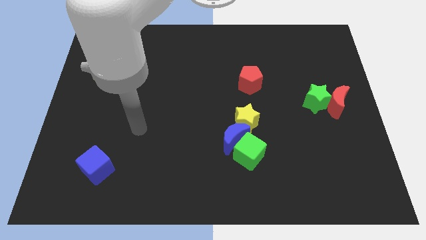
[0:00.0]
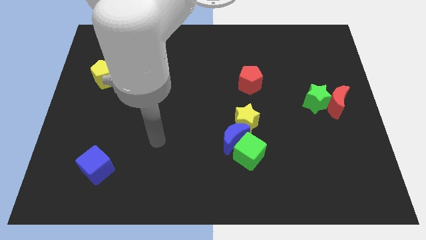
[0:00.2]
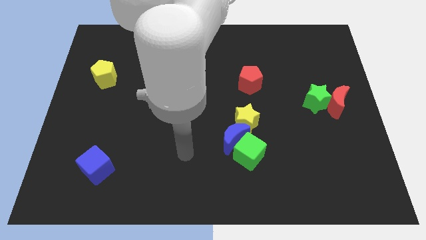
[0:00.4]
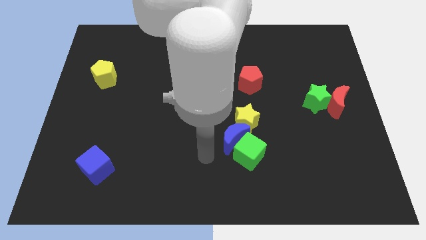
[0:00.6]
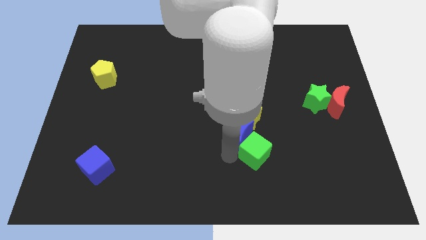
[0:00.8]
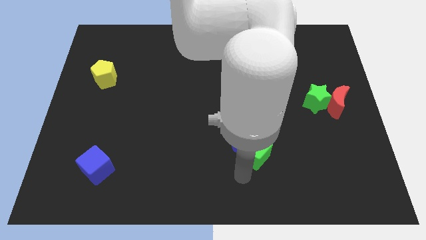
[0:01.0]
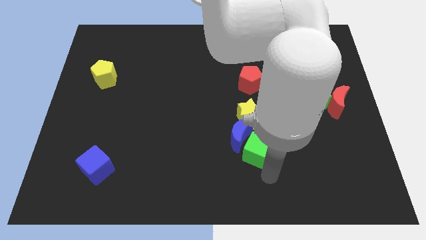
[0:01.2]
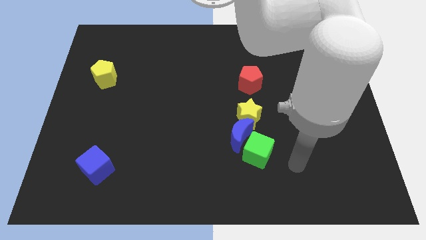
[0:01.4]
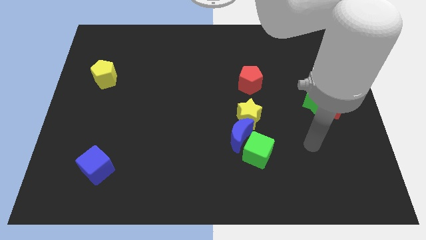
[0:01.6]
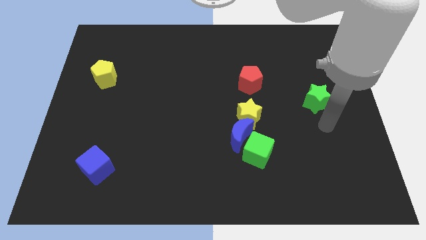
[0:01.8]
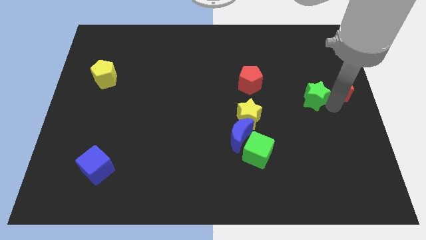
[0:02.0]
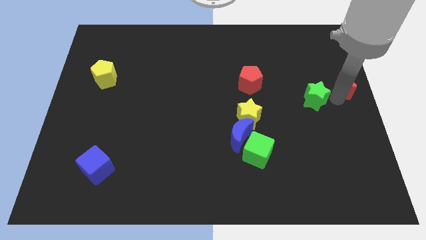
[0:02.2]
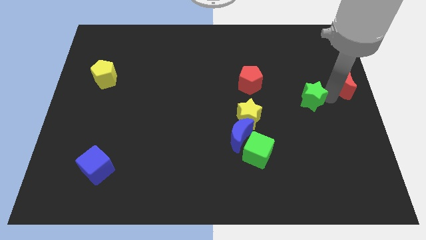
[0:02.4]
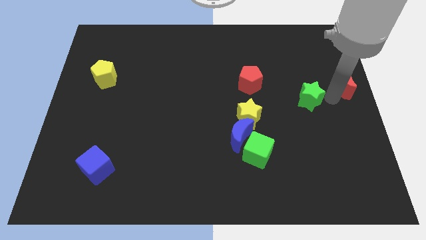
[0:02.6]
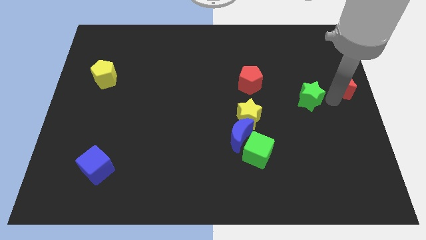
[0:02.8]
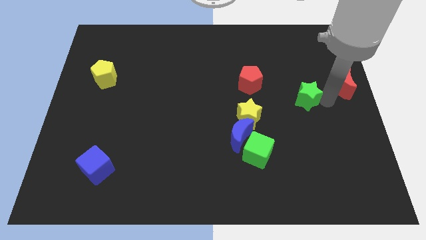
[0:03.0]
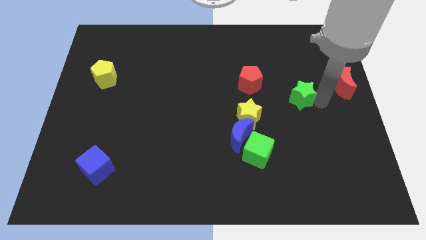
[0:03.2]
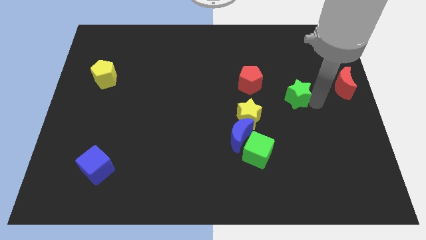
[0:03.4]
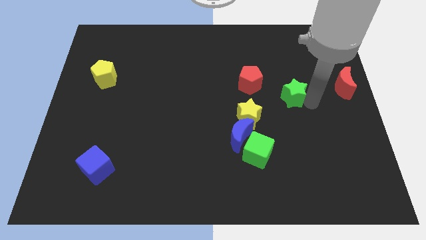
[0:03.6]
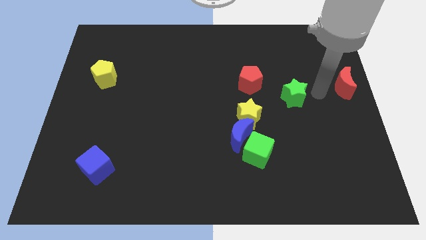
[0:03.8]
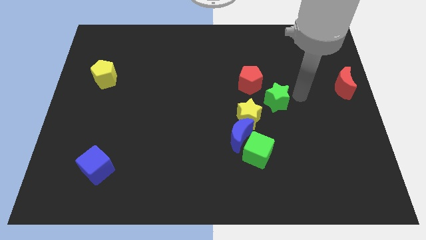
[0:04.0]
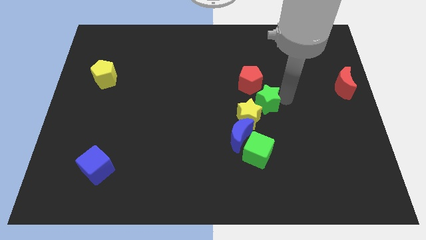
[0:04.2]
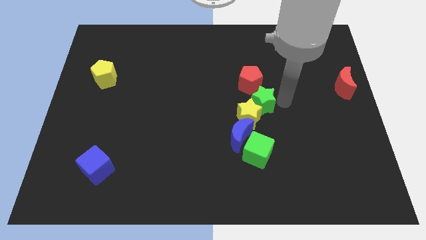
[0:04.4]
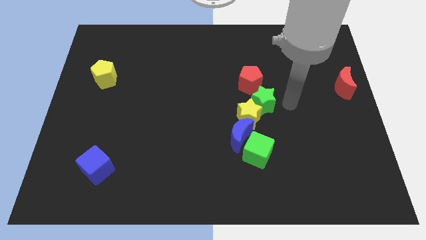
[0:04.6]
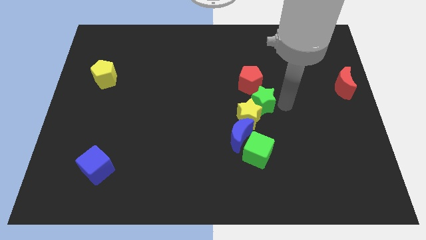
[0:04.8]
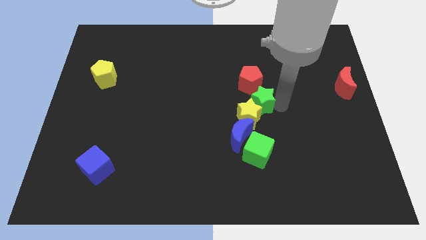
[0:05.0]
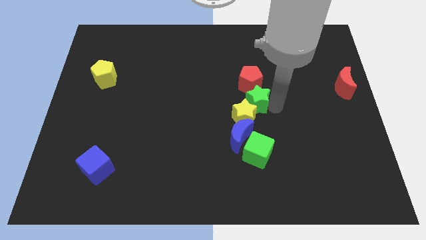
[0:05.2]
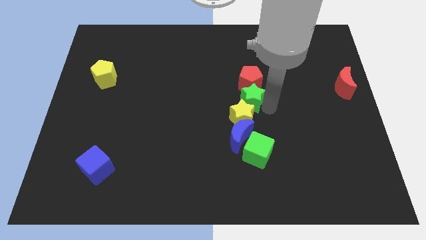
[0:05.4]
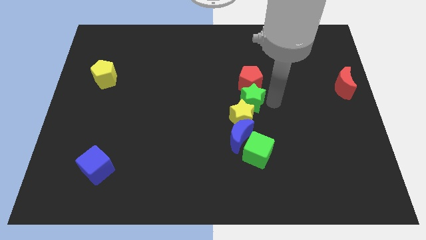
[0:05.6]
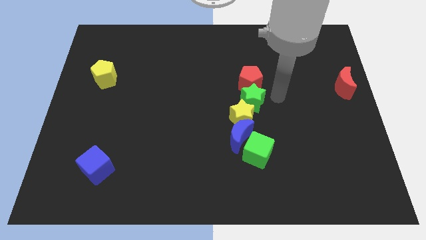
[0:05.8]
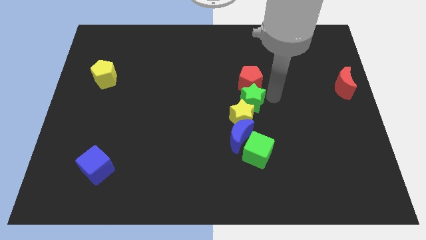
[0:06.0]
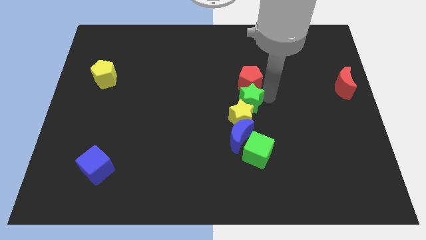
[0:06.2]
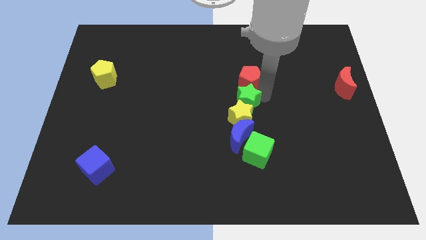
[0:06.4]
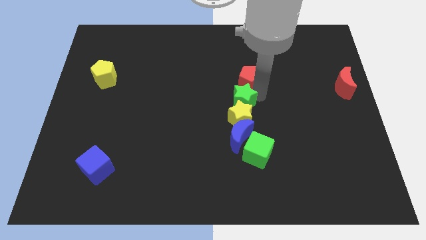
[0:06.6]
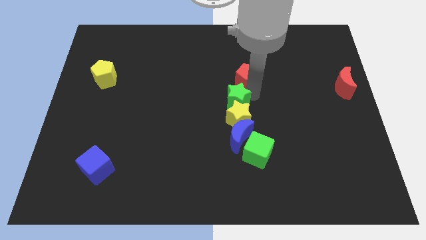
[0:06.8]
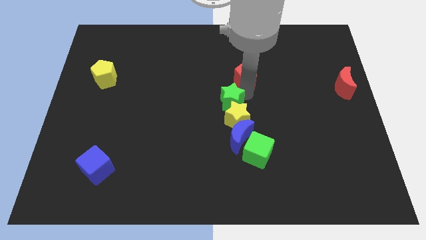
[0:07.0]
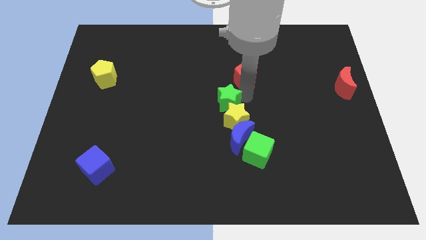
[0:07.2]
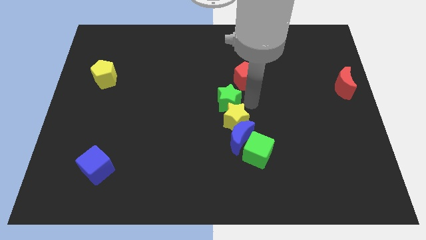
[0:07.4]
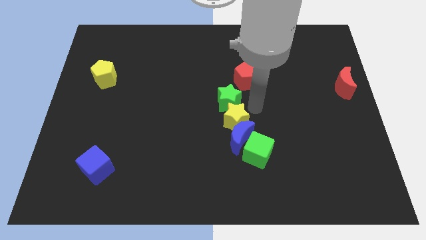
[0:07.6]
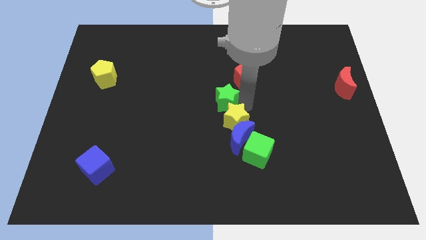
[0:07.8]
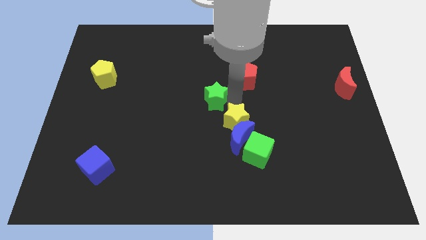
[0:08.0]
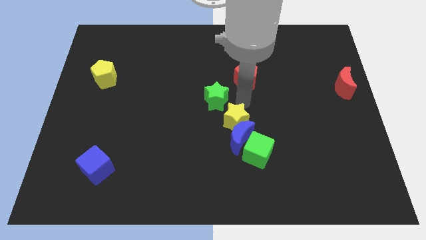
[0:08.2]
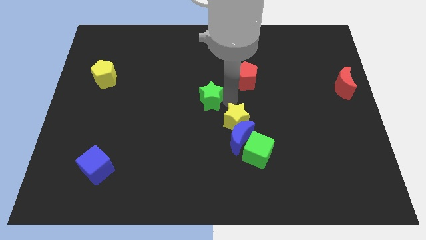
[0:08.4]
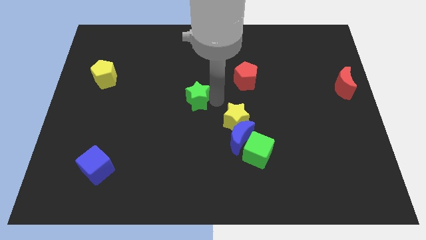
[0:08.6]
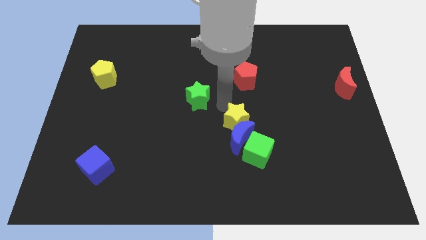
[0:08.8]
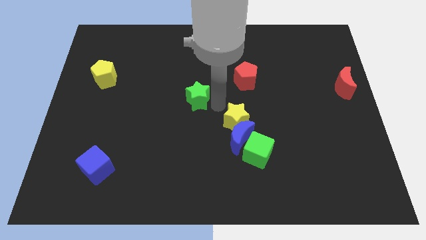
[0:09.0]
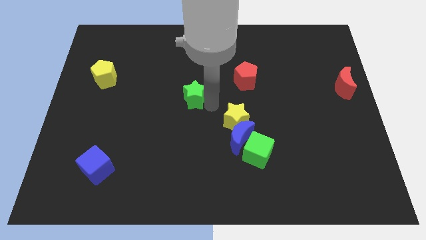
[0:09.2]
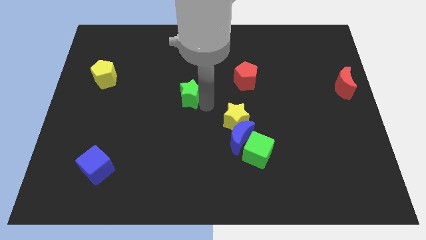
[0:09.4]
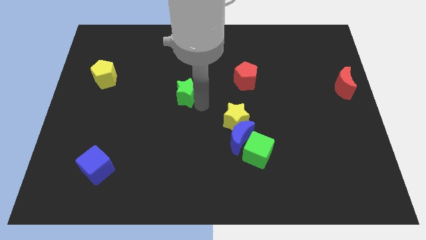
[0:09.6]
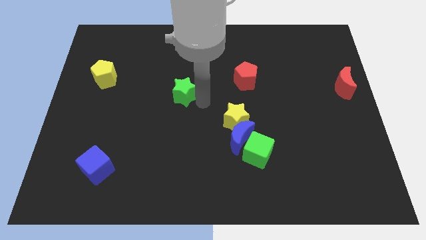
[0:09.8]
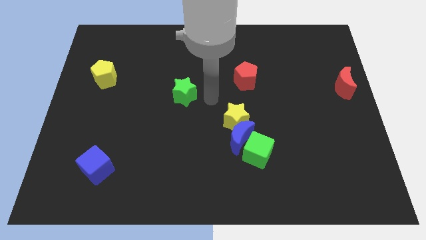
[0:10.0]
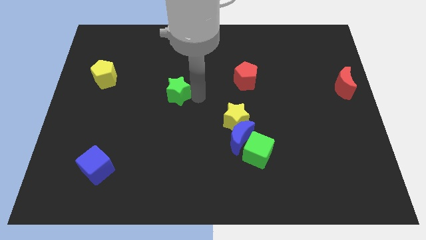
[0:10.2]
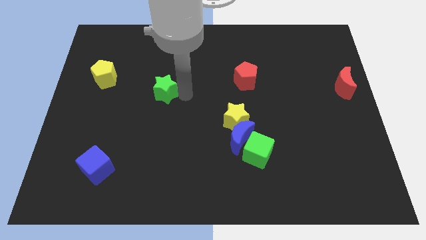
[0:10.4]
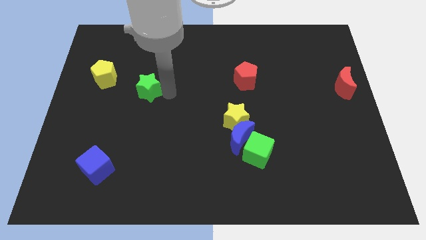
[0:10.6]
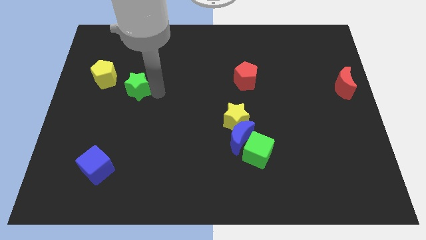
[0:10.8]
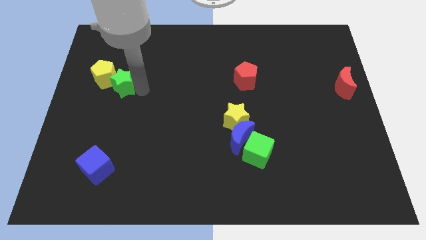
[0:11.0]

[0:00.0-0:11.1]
slide the green star close to the yellow pentagon

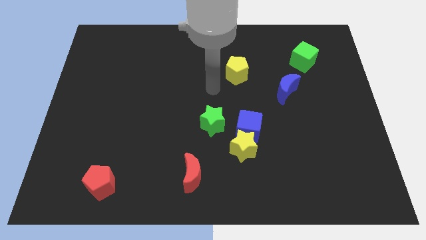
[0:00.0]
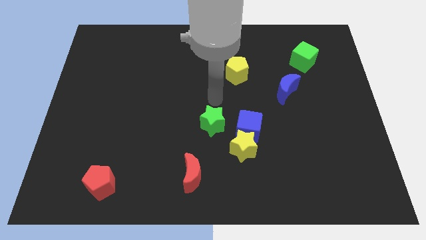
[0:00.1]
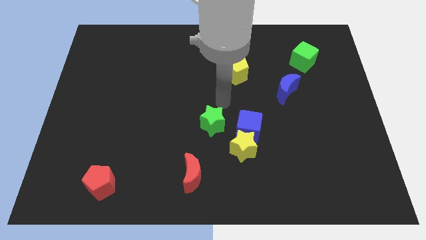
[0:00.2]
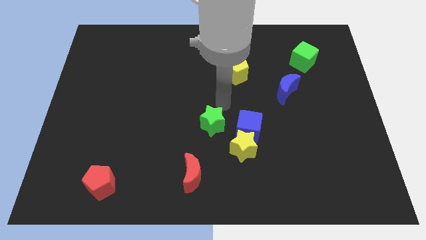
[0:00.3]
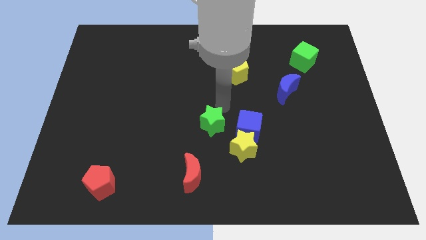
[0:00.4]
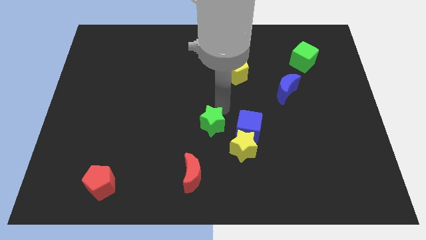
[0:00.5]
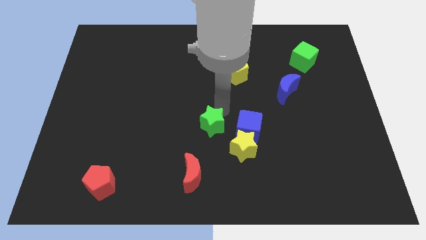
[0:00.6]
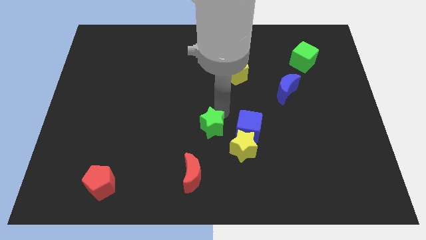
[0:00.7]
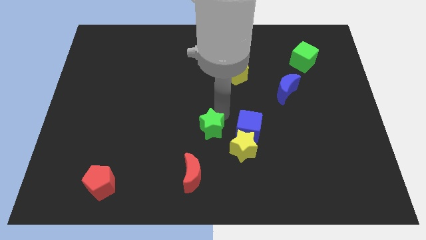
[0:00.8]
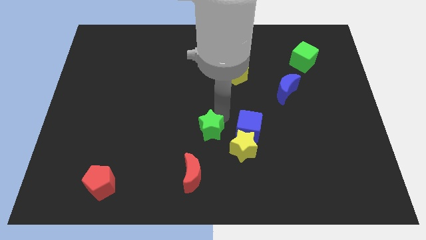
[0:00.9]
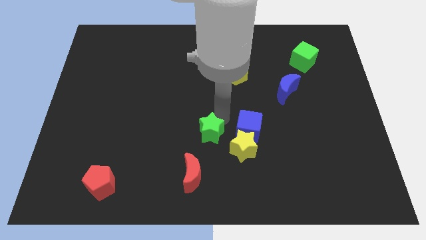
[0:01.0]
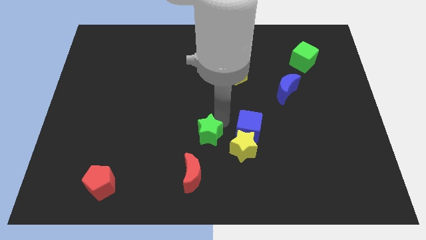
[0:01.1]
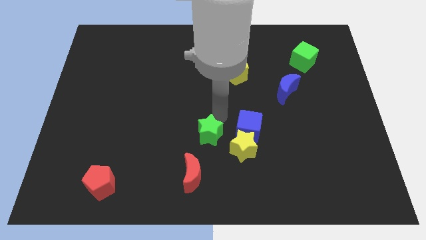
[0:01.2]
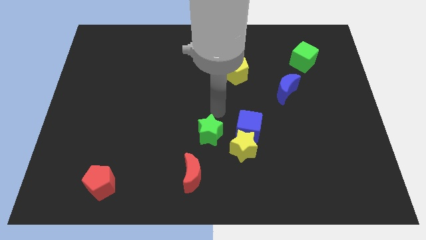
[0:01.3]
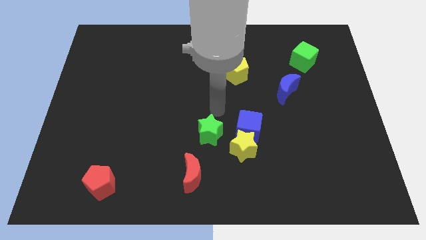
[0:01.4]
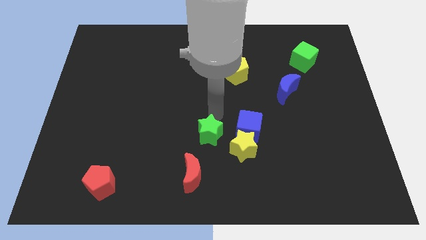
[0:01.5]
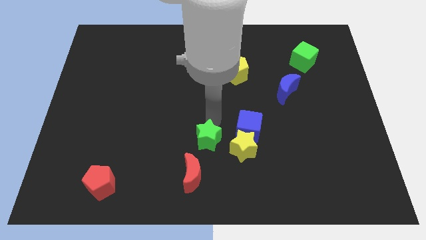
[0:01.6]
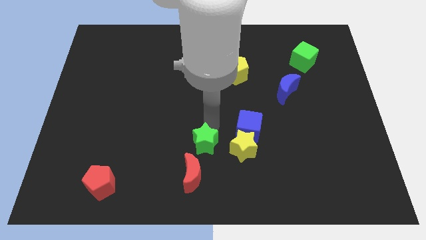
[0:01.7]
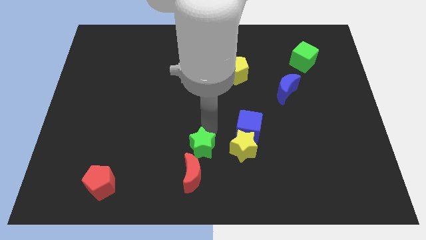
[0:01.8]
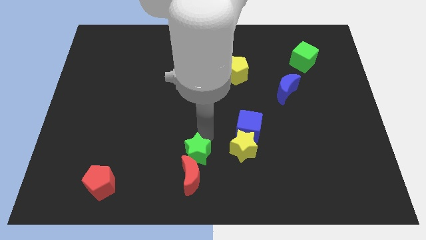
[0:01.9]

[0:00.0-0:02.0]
slide the green star close to the red moon

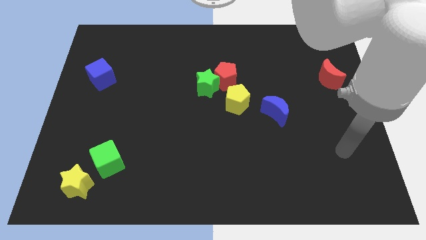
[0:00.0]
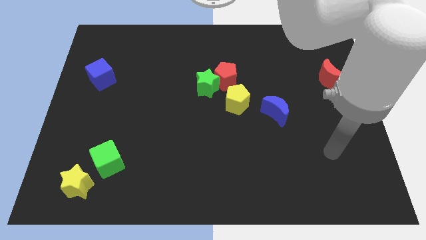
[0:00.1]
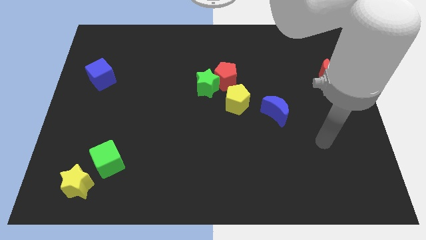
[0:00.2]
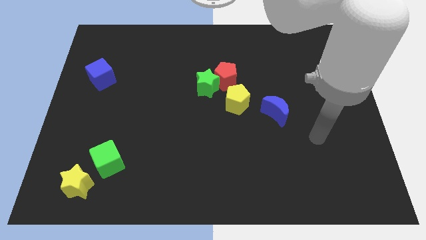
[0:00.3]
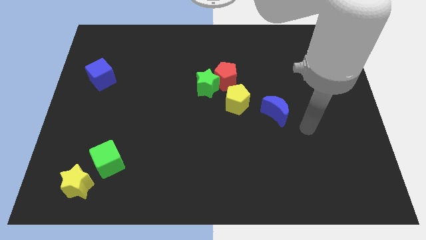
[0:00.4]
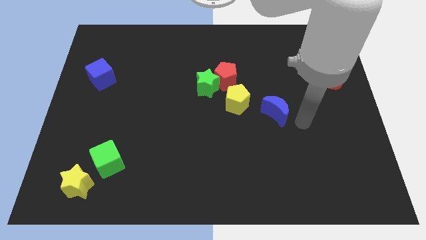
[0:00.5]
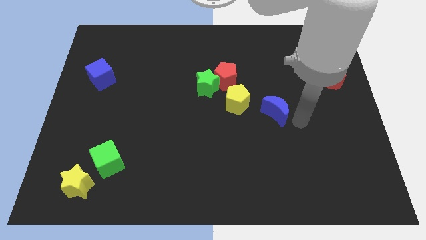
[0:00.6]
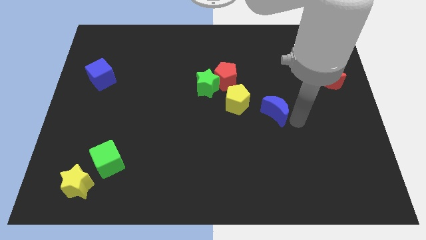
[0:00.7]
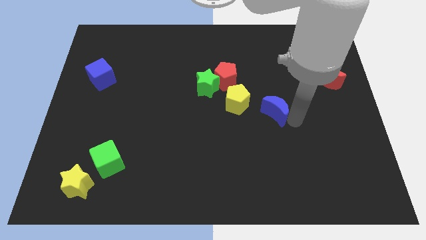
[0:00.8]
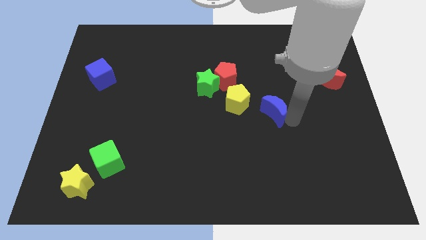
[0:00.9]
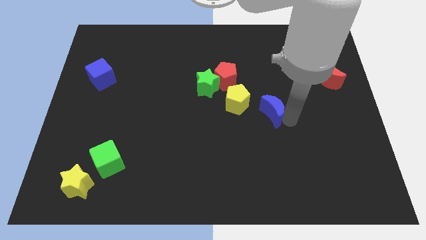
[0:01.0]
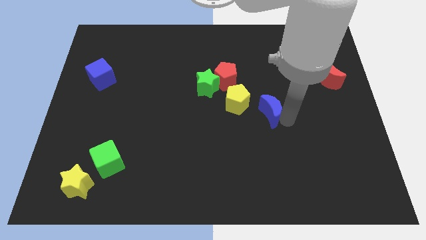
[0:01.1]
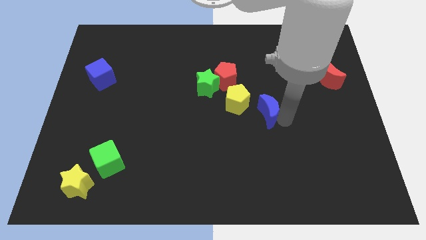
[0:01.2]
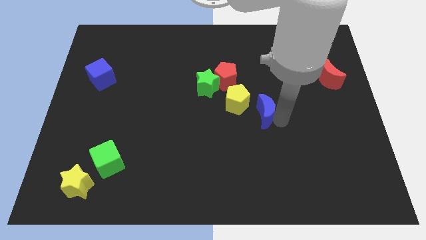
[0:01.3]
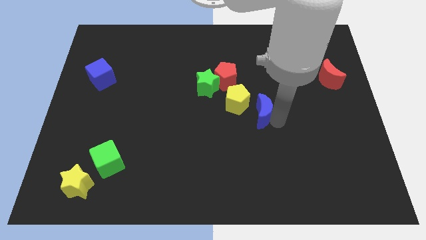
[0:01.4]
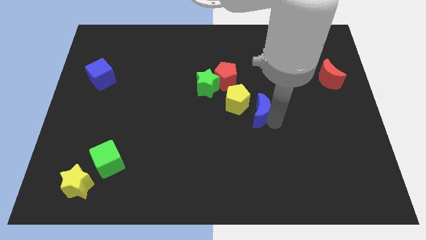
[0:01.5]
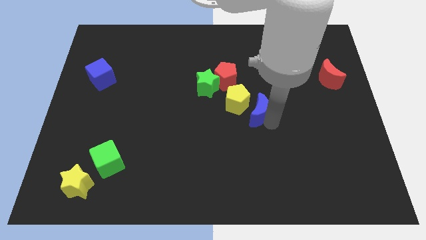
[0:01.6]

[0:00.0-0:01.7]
move the blue moon to the yellow pentagon
